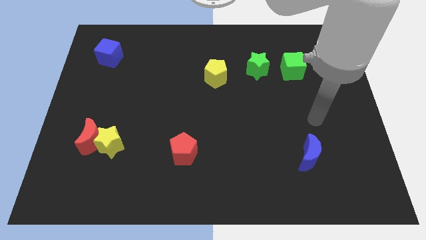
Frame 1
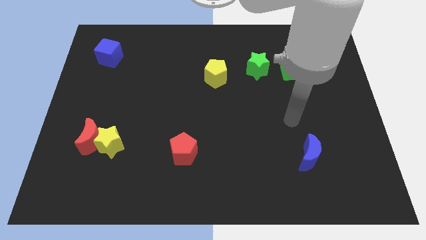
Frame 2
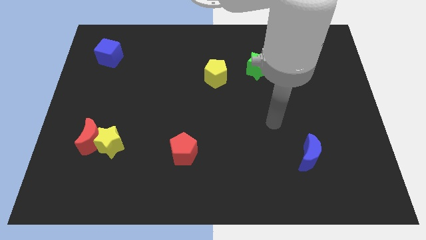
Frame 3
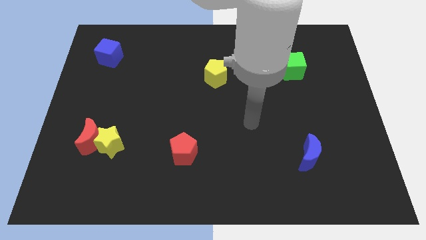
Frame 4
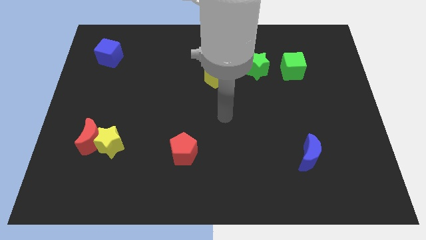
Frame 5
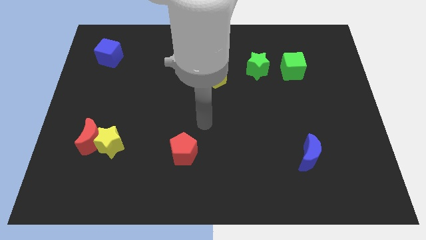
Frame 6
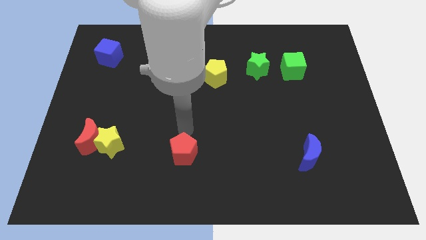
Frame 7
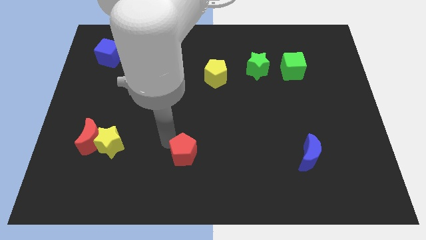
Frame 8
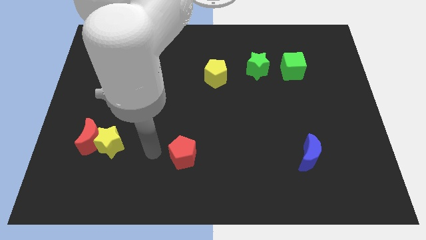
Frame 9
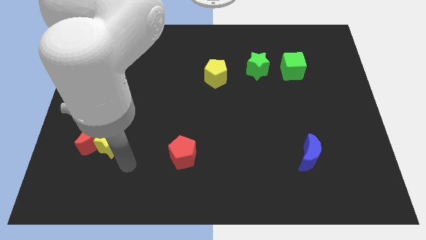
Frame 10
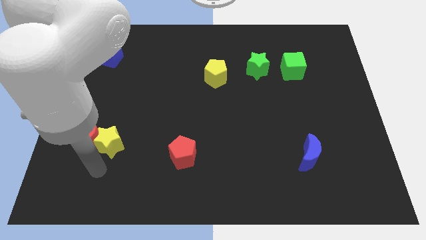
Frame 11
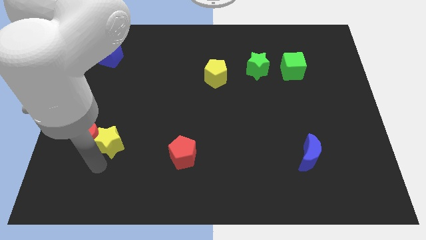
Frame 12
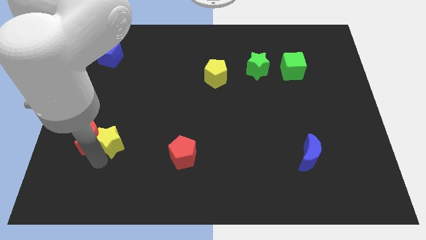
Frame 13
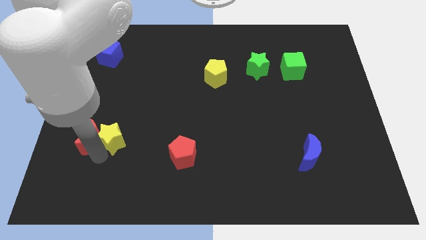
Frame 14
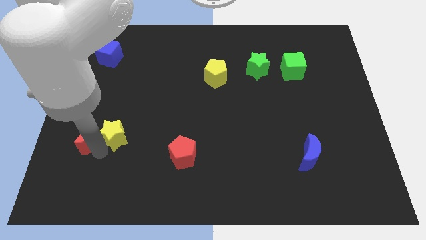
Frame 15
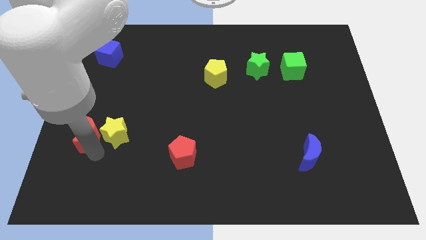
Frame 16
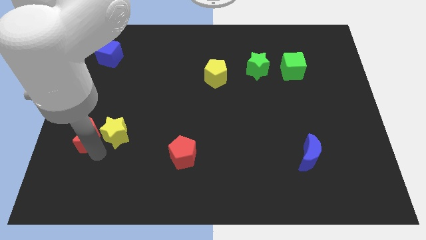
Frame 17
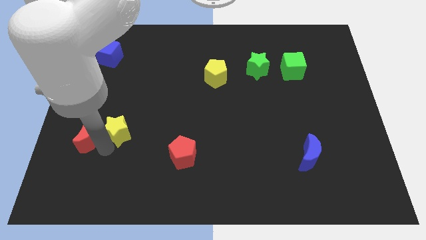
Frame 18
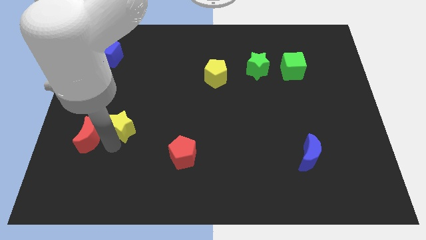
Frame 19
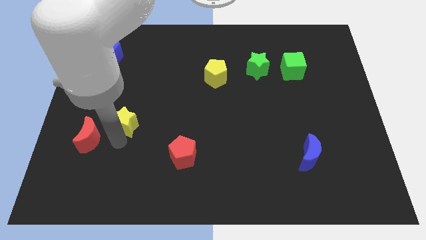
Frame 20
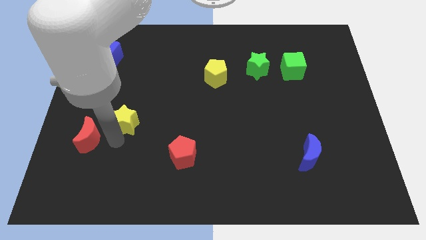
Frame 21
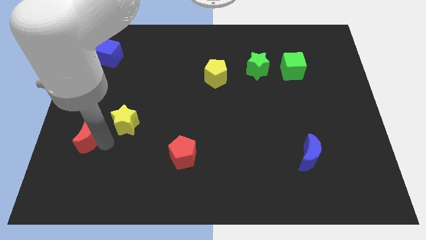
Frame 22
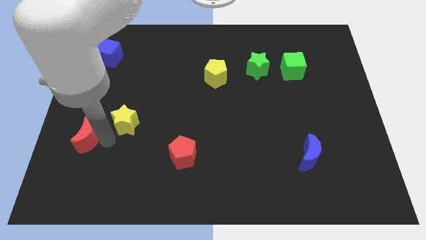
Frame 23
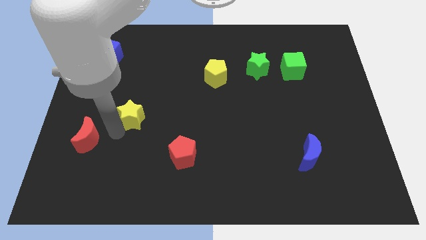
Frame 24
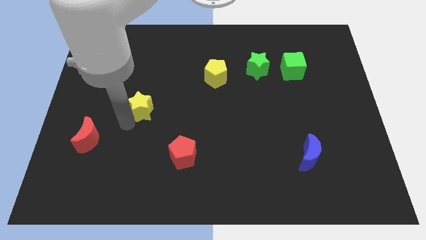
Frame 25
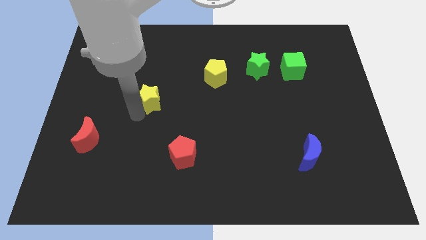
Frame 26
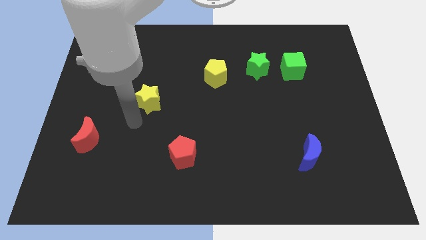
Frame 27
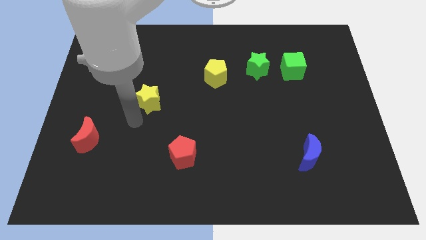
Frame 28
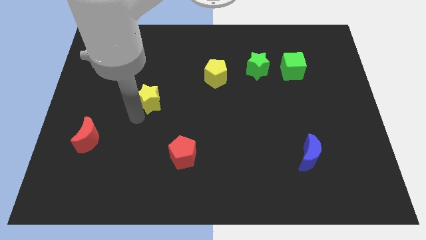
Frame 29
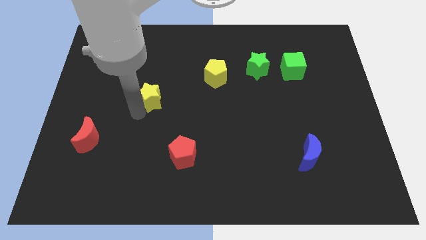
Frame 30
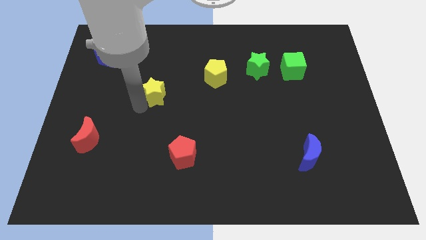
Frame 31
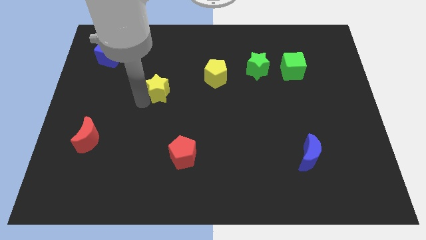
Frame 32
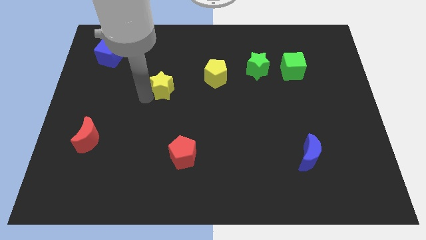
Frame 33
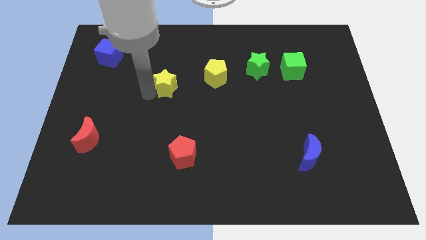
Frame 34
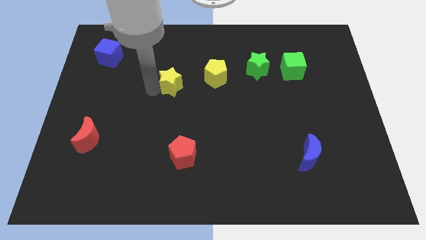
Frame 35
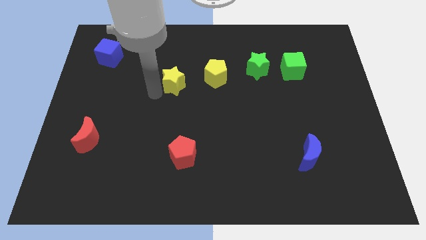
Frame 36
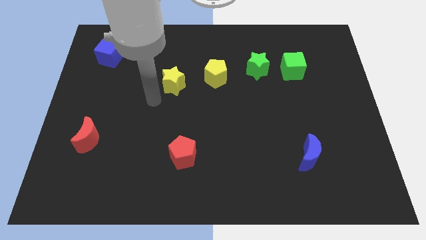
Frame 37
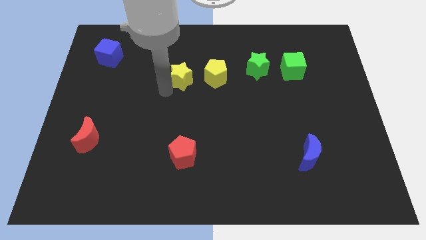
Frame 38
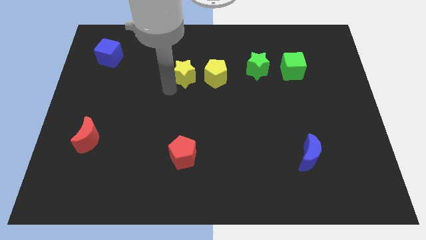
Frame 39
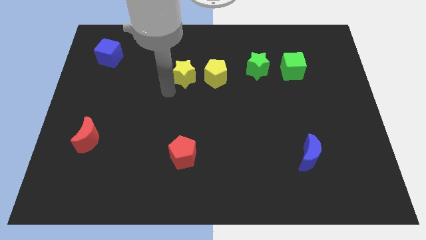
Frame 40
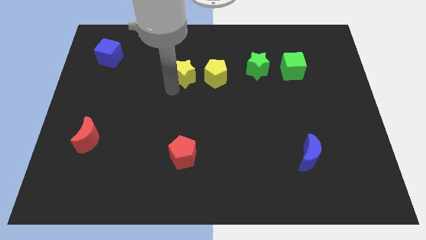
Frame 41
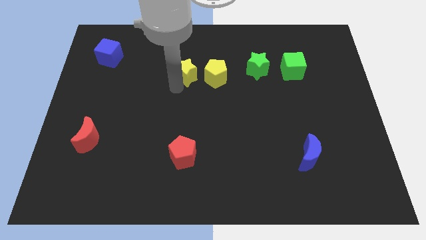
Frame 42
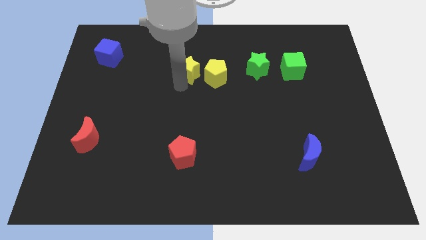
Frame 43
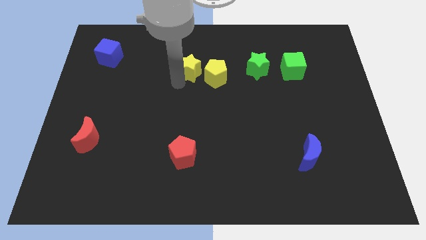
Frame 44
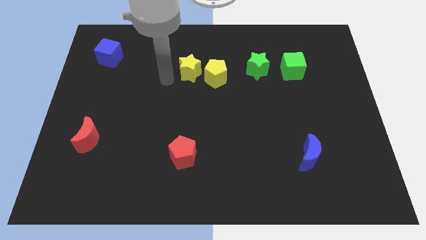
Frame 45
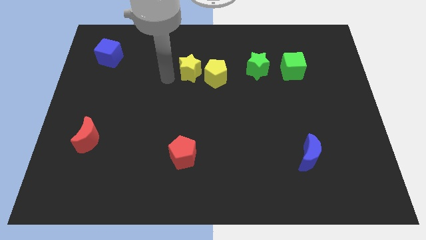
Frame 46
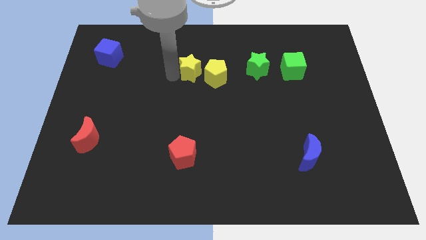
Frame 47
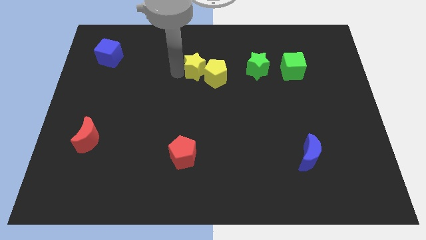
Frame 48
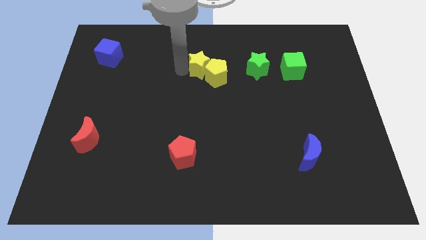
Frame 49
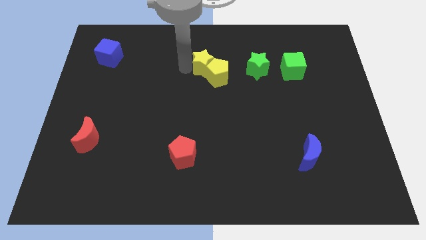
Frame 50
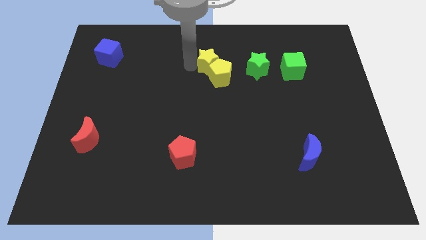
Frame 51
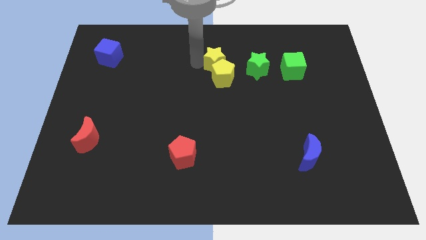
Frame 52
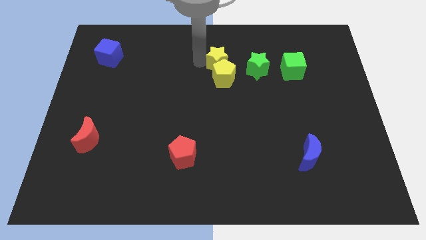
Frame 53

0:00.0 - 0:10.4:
put the yellow star diagonally up and to the right of the yellow pentagon
